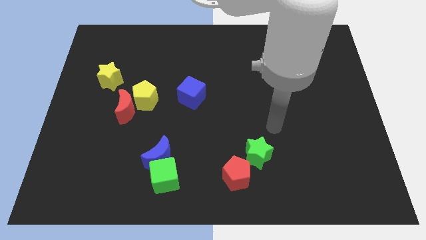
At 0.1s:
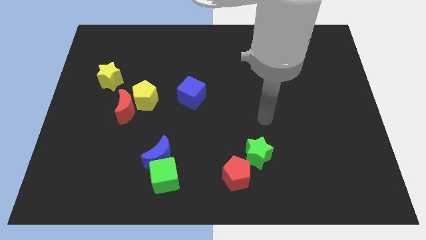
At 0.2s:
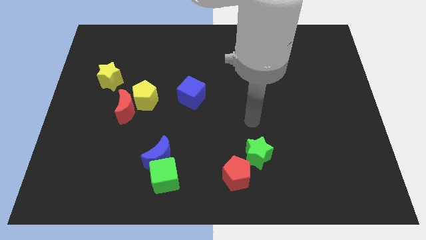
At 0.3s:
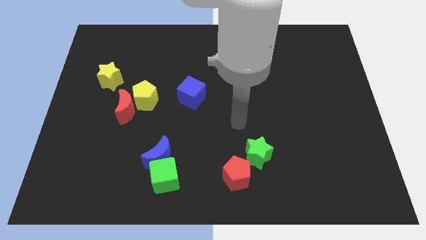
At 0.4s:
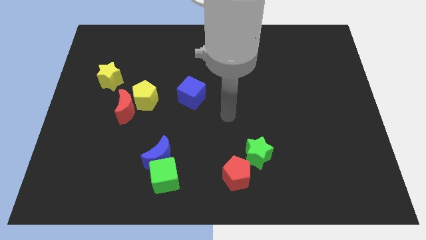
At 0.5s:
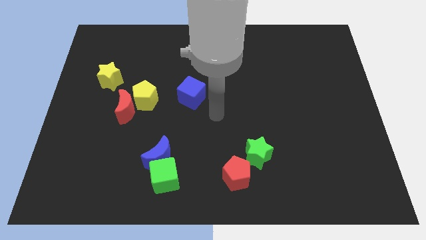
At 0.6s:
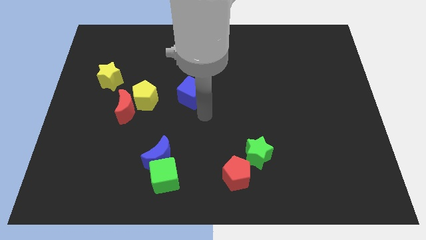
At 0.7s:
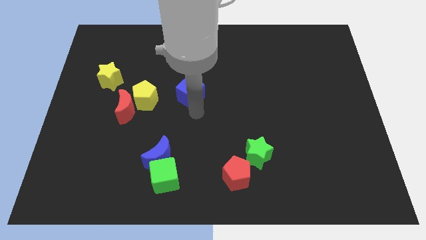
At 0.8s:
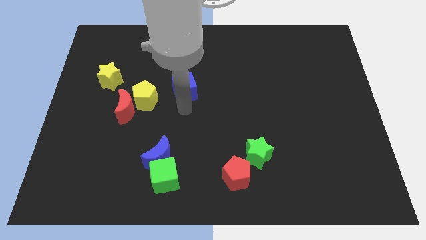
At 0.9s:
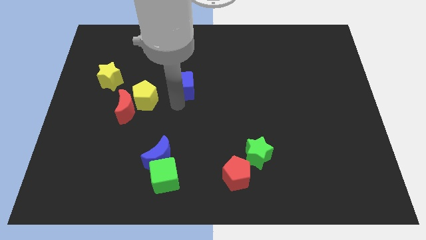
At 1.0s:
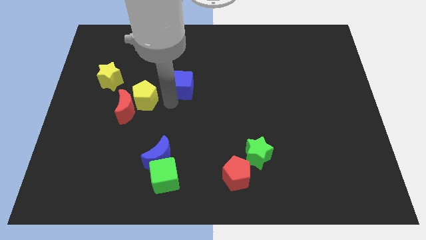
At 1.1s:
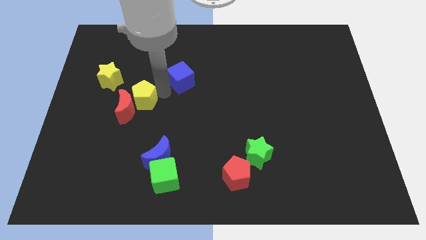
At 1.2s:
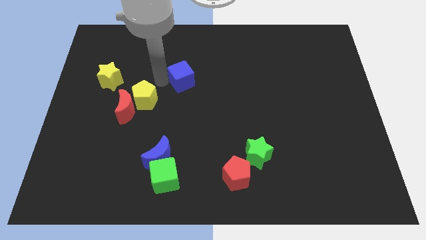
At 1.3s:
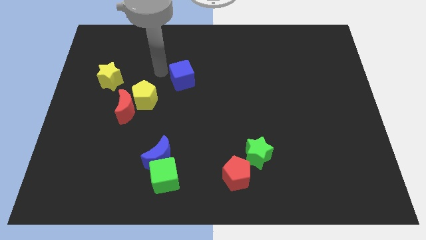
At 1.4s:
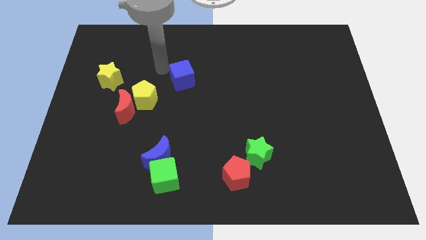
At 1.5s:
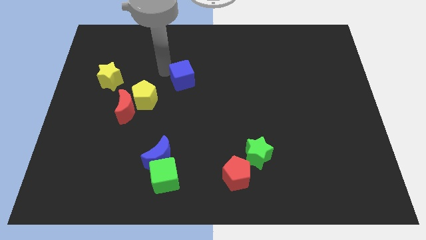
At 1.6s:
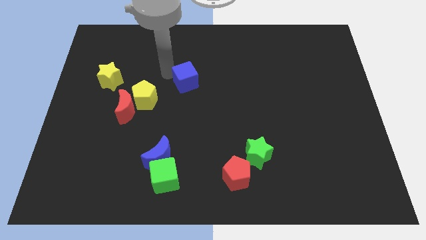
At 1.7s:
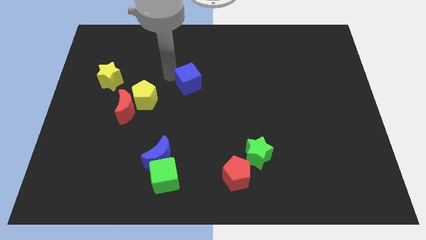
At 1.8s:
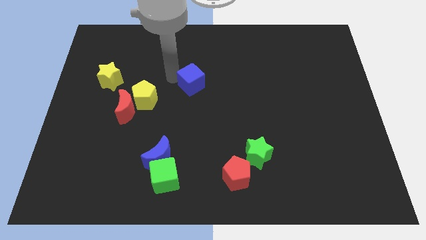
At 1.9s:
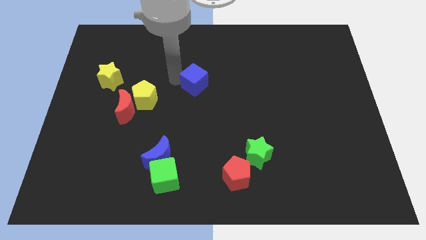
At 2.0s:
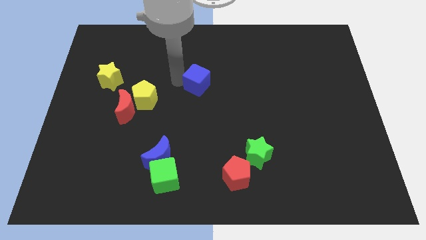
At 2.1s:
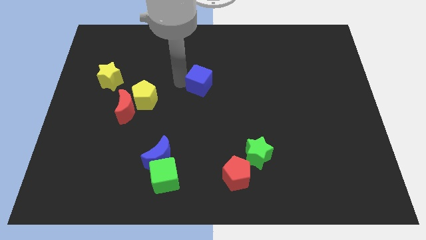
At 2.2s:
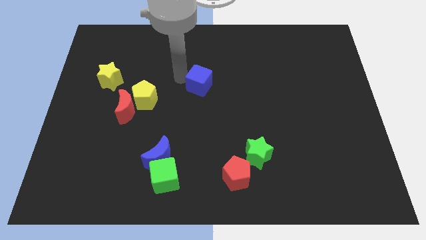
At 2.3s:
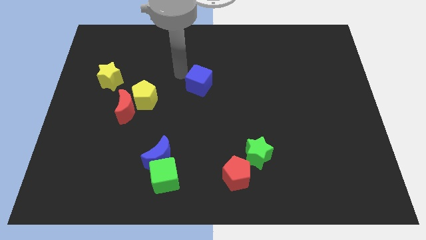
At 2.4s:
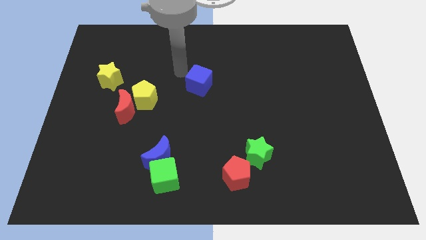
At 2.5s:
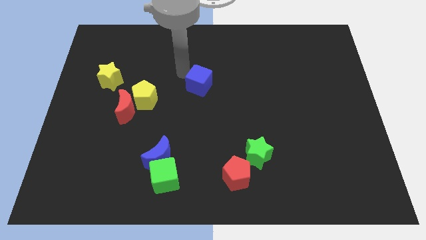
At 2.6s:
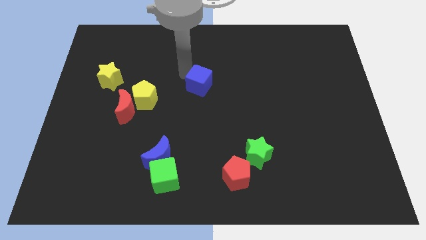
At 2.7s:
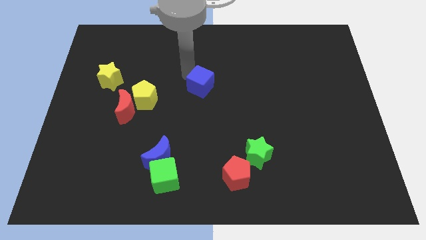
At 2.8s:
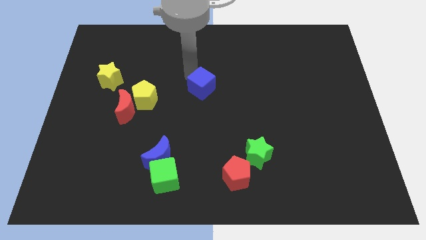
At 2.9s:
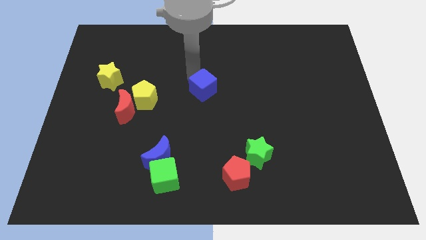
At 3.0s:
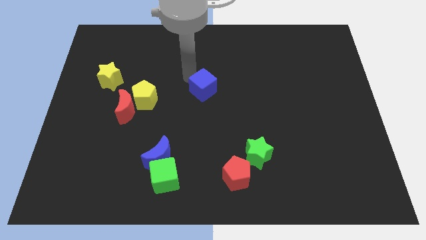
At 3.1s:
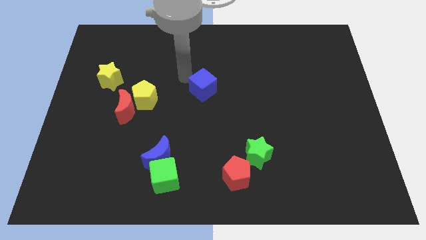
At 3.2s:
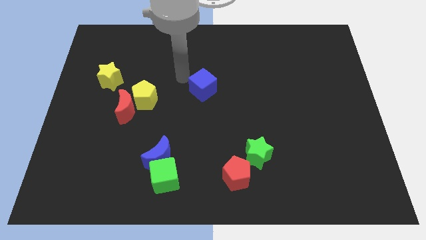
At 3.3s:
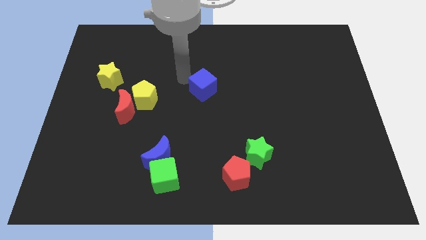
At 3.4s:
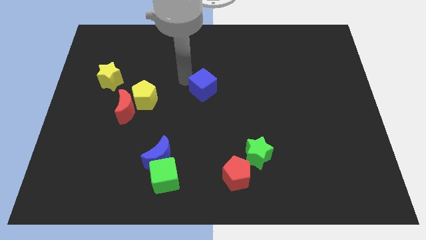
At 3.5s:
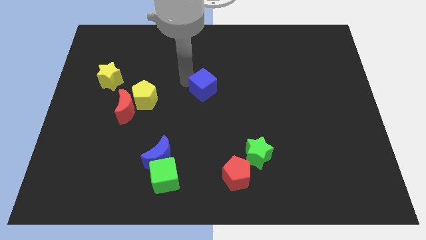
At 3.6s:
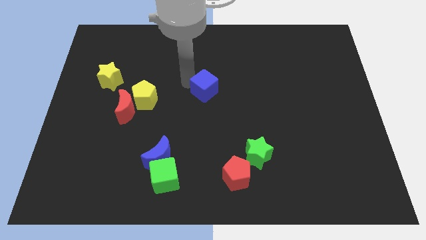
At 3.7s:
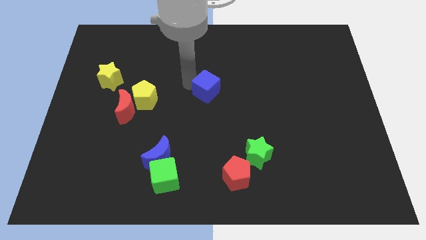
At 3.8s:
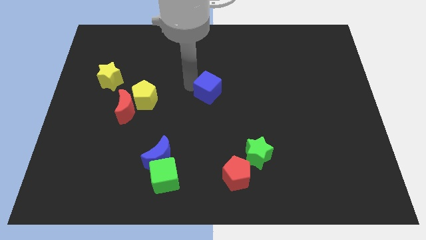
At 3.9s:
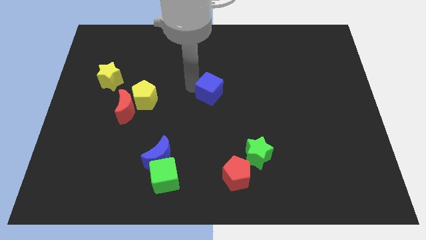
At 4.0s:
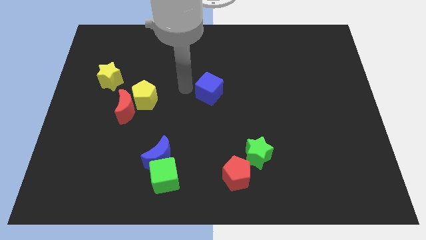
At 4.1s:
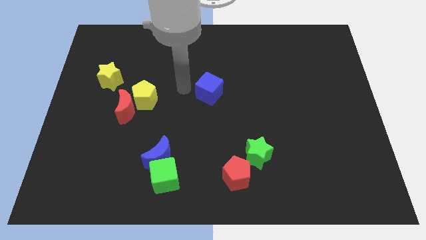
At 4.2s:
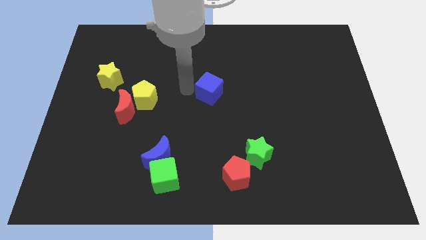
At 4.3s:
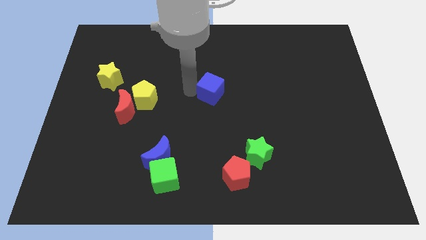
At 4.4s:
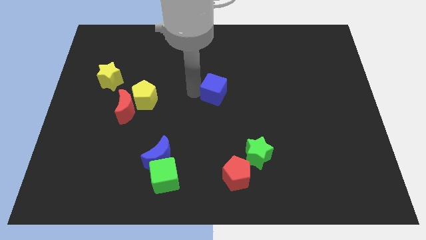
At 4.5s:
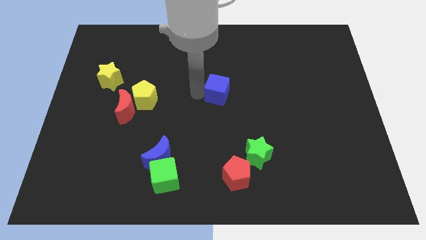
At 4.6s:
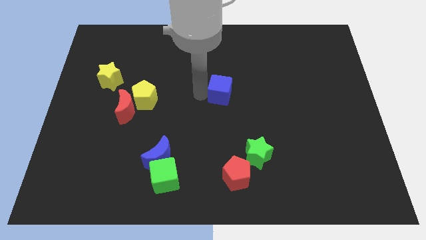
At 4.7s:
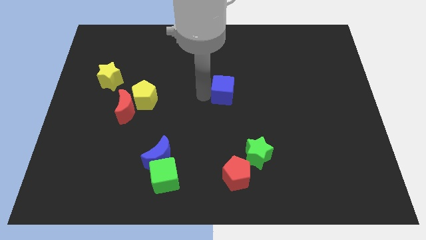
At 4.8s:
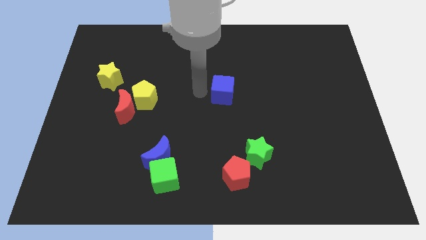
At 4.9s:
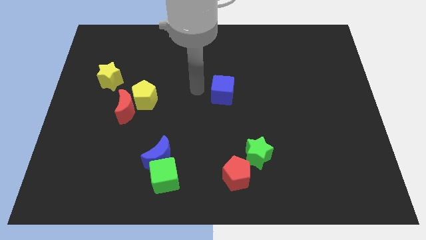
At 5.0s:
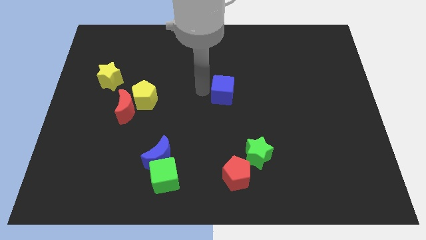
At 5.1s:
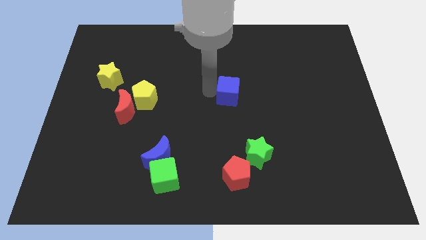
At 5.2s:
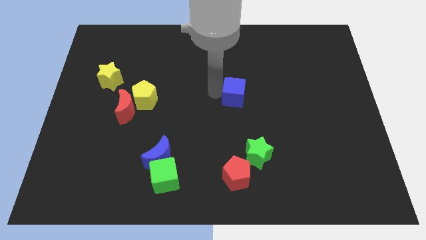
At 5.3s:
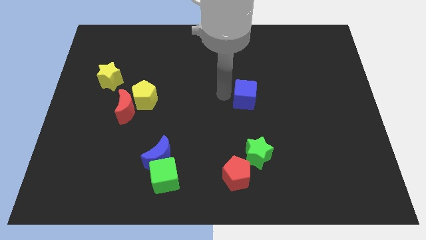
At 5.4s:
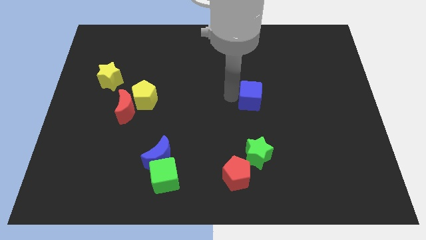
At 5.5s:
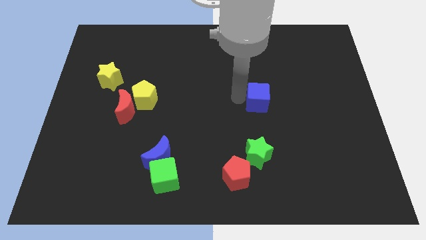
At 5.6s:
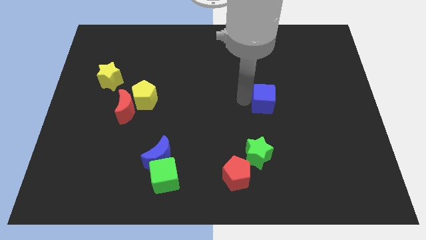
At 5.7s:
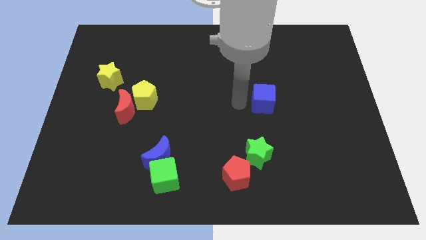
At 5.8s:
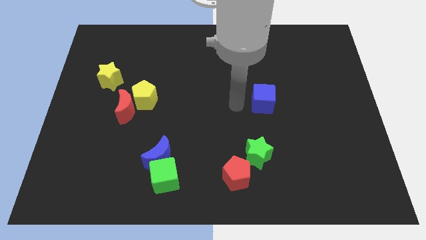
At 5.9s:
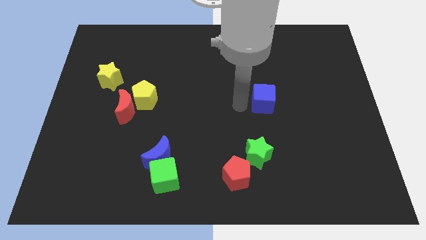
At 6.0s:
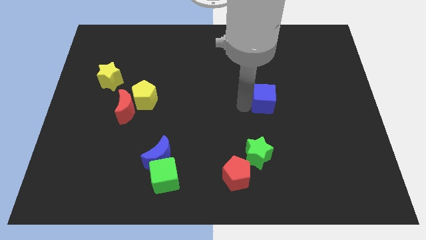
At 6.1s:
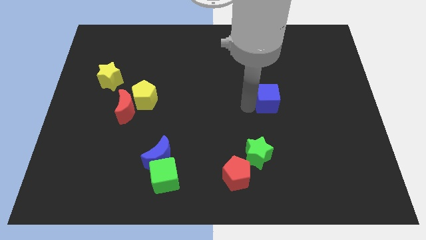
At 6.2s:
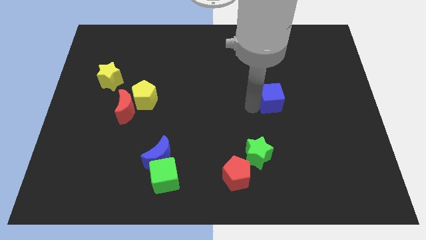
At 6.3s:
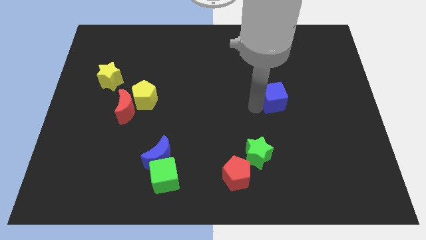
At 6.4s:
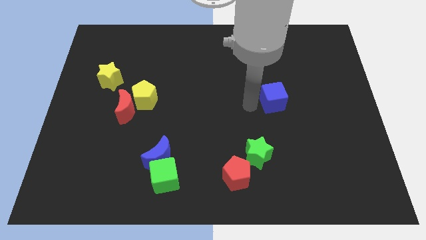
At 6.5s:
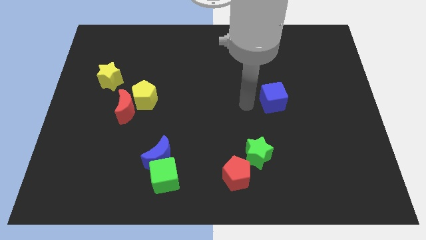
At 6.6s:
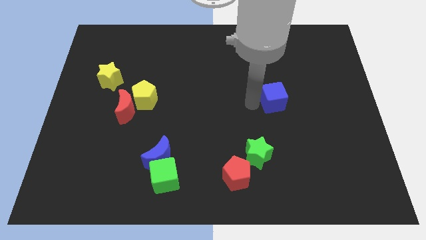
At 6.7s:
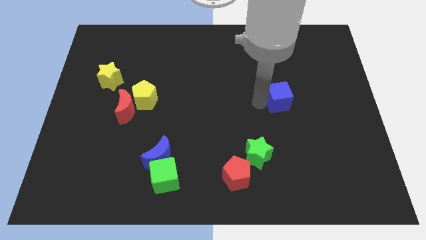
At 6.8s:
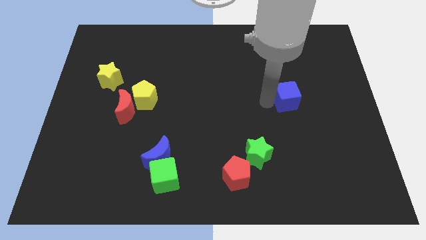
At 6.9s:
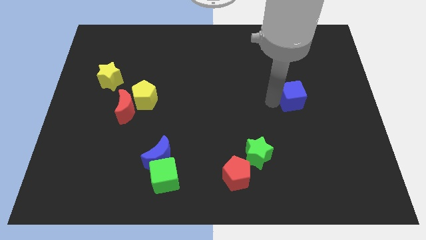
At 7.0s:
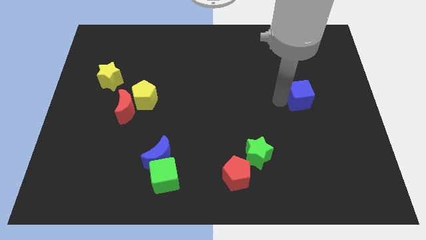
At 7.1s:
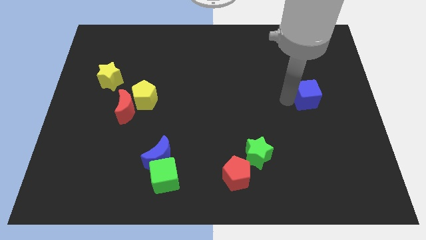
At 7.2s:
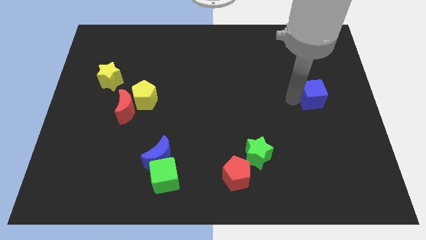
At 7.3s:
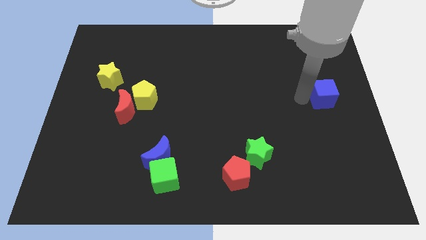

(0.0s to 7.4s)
slide the blue cube to the right side
